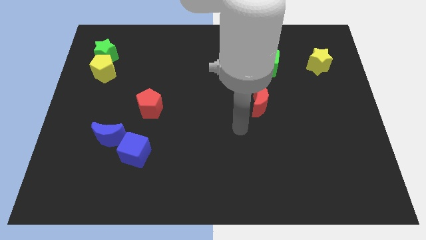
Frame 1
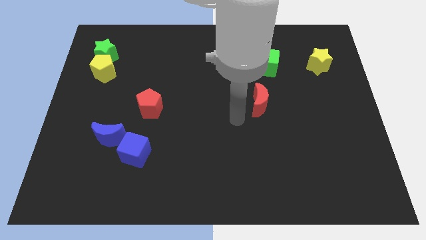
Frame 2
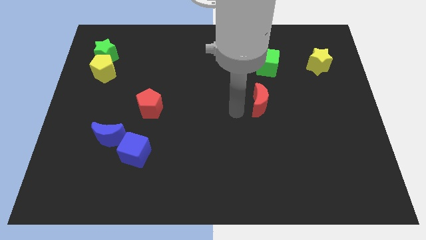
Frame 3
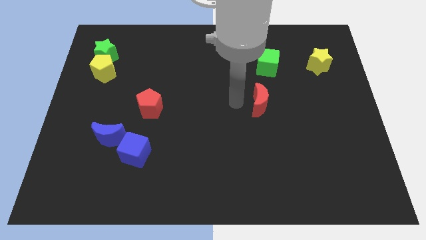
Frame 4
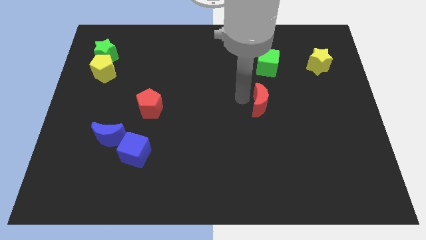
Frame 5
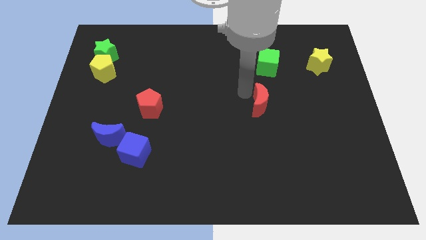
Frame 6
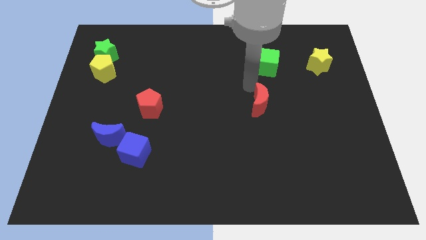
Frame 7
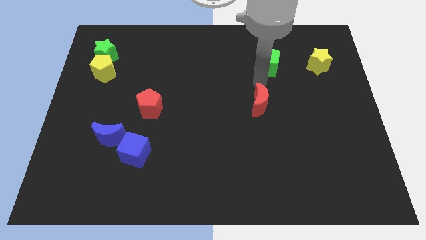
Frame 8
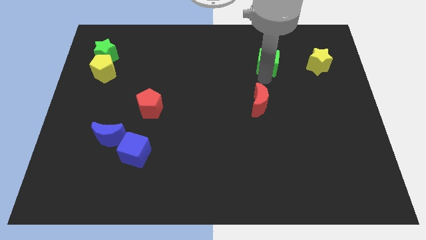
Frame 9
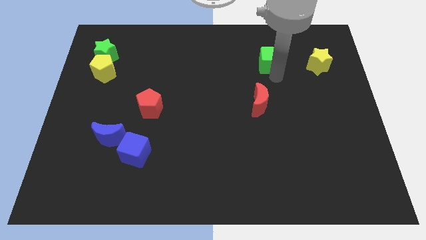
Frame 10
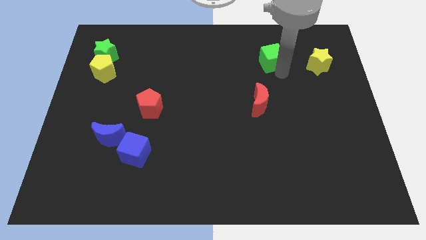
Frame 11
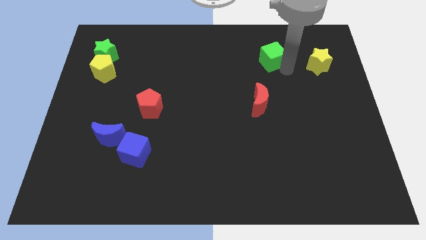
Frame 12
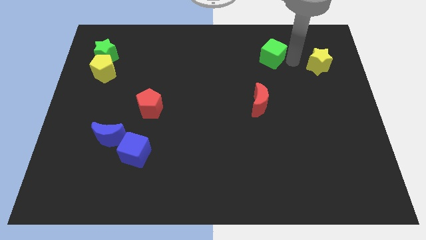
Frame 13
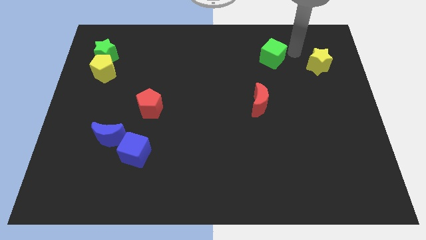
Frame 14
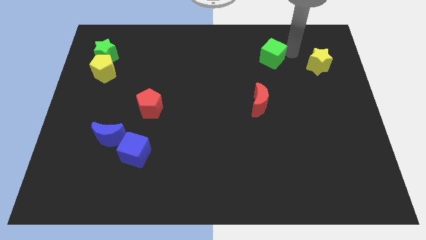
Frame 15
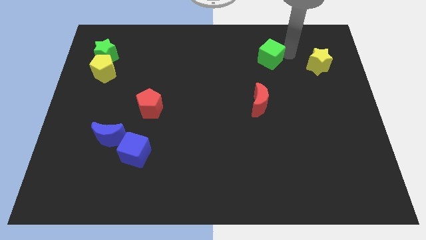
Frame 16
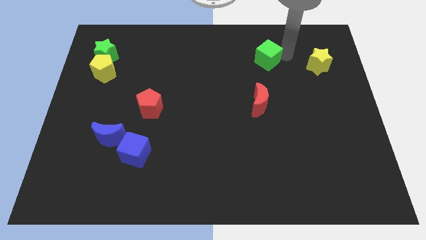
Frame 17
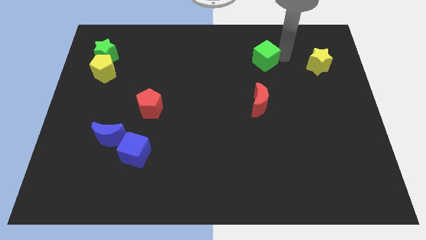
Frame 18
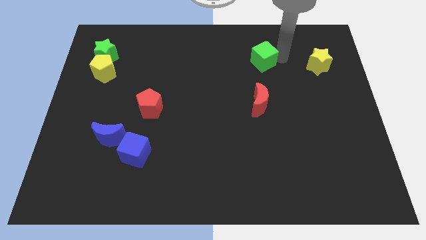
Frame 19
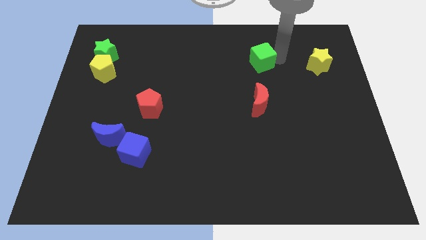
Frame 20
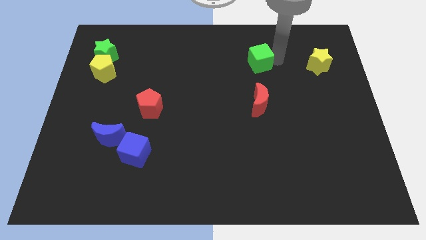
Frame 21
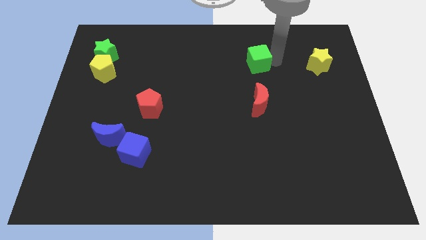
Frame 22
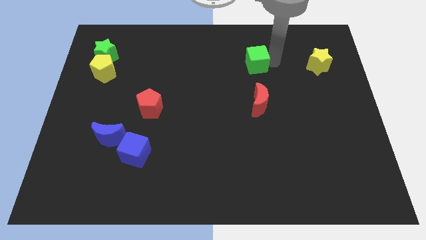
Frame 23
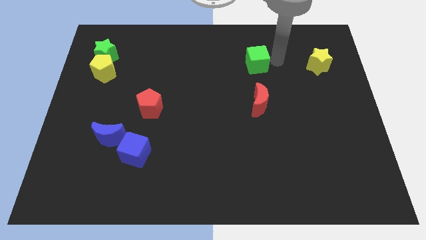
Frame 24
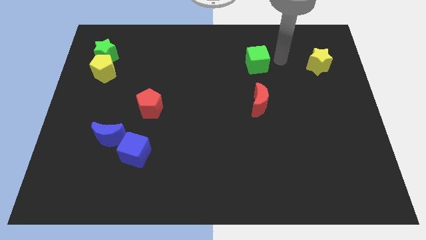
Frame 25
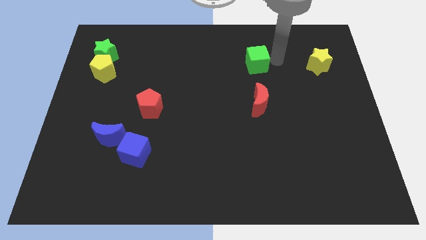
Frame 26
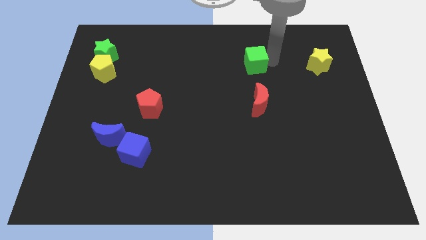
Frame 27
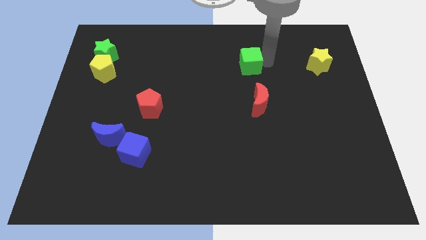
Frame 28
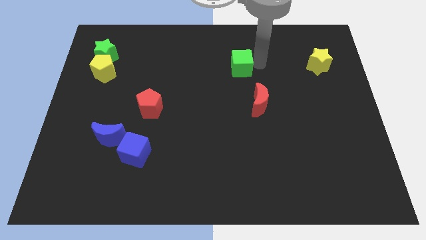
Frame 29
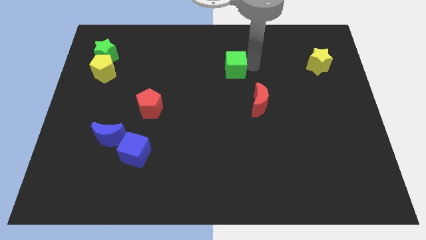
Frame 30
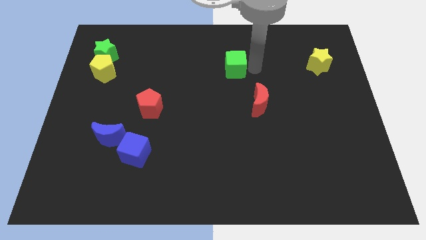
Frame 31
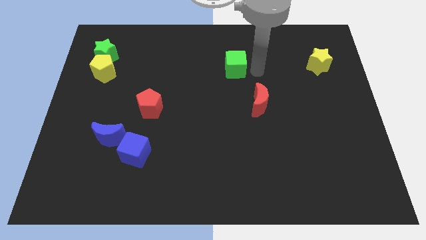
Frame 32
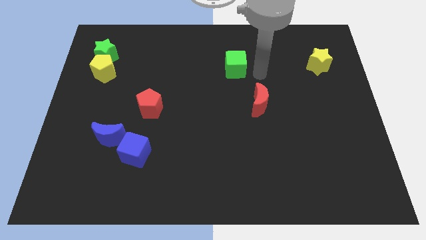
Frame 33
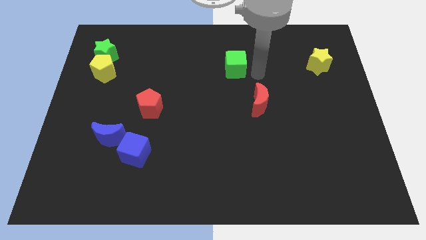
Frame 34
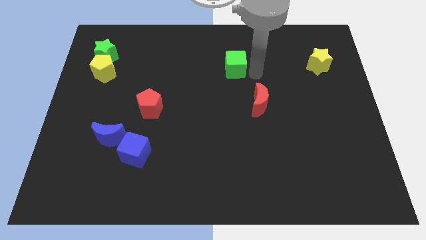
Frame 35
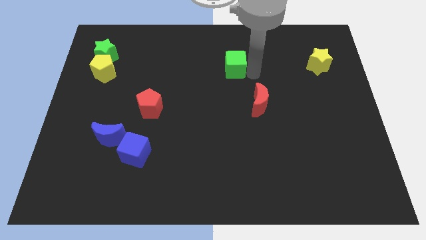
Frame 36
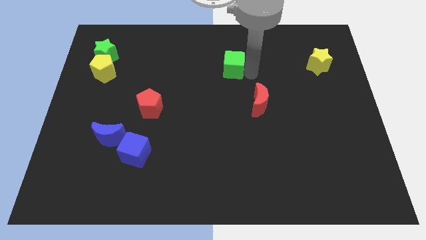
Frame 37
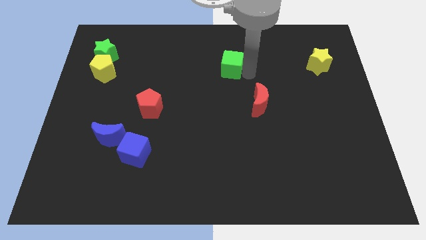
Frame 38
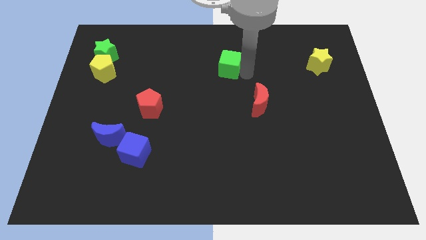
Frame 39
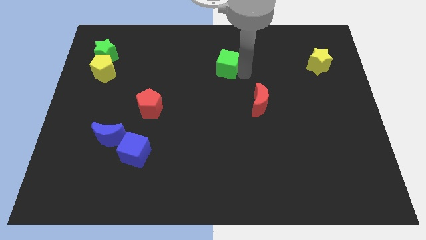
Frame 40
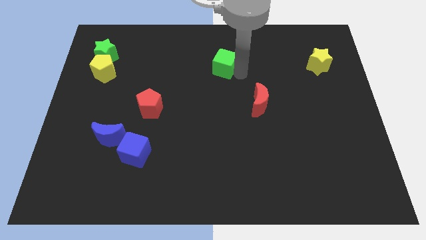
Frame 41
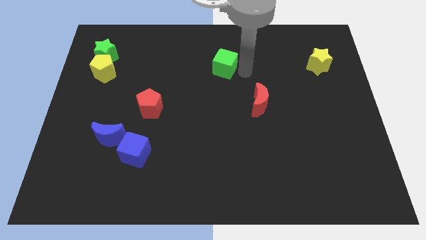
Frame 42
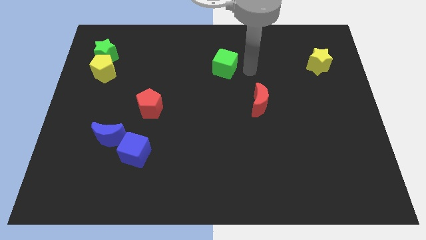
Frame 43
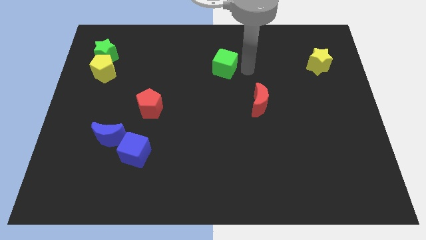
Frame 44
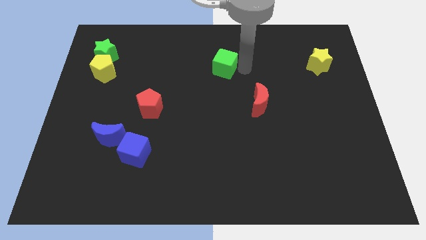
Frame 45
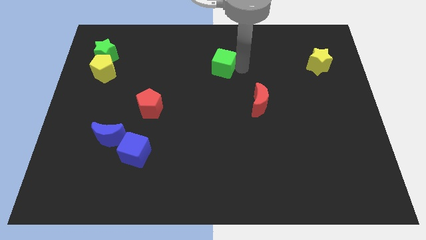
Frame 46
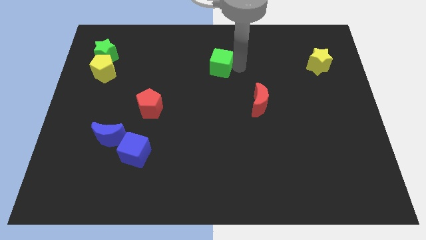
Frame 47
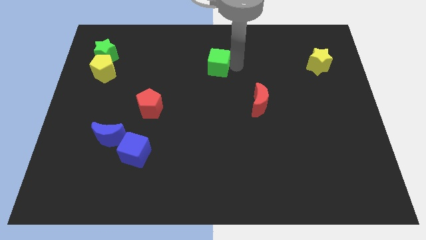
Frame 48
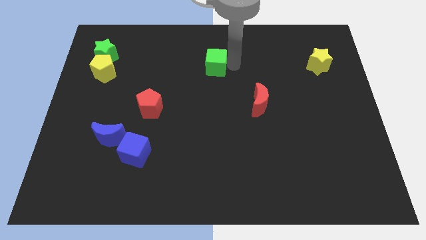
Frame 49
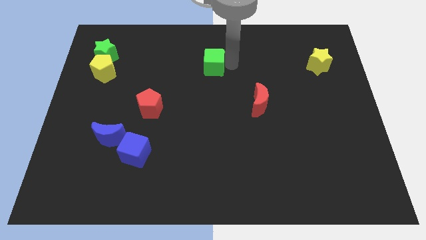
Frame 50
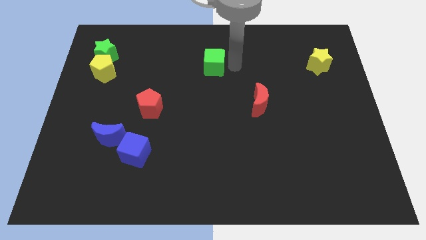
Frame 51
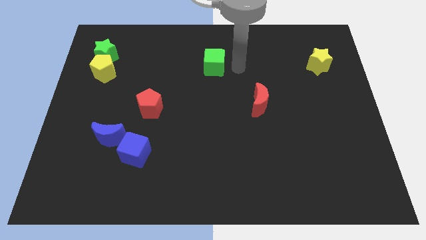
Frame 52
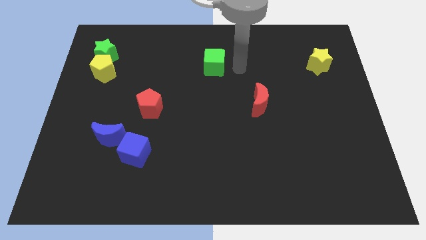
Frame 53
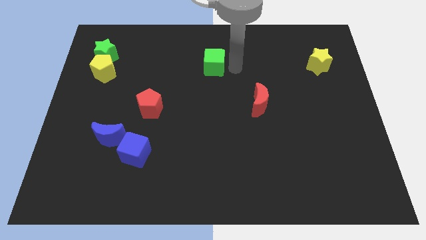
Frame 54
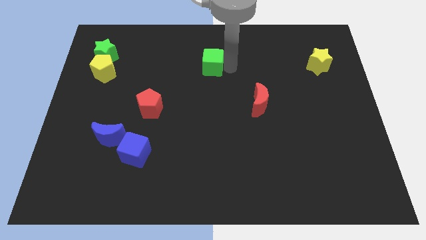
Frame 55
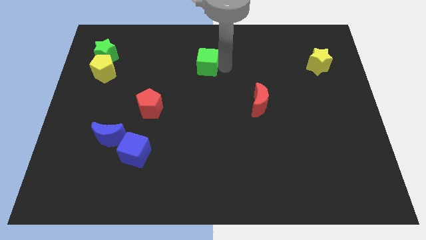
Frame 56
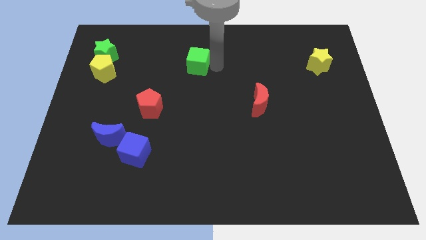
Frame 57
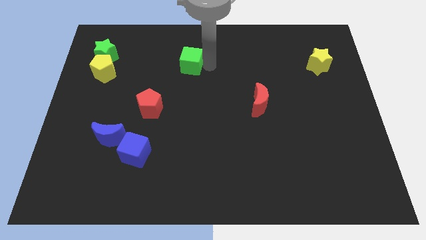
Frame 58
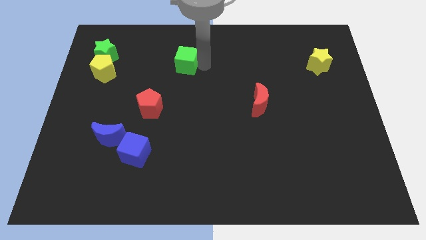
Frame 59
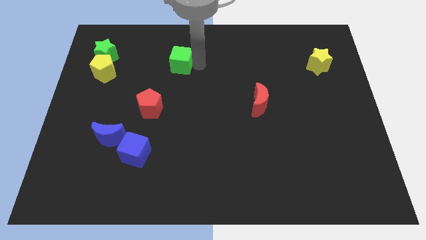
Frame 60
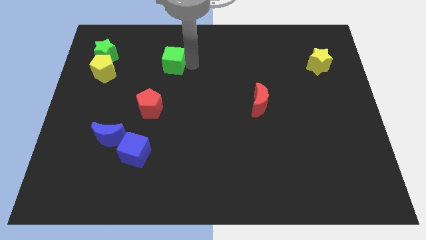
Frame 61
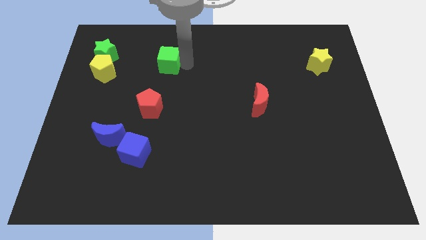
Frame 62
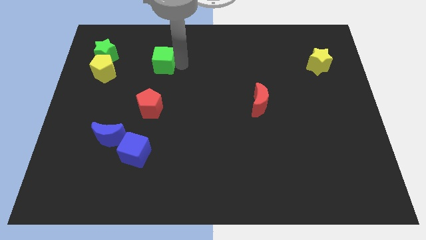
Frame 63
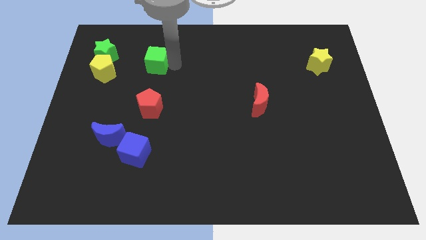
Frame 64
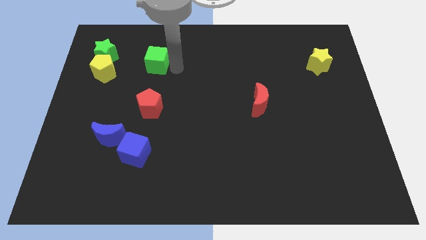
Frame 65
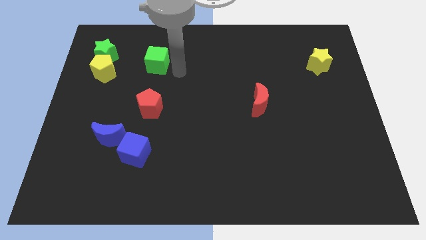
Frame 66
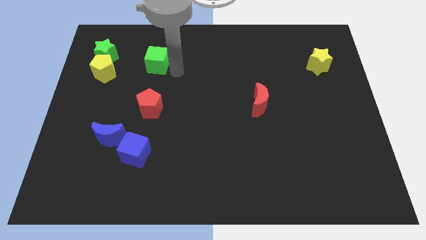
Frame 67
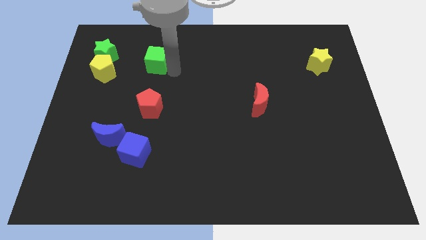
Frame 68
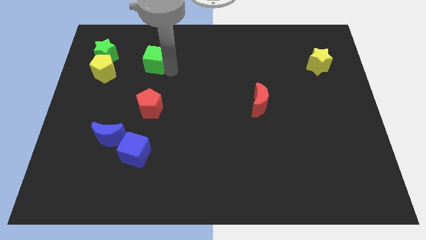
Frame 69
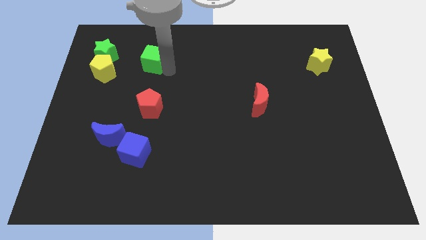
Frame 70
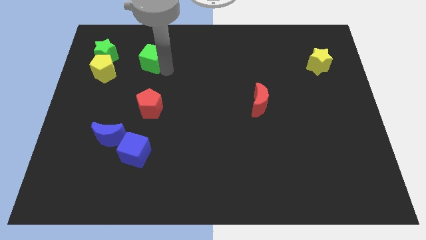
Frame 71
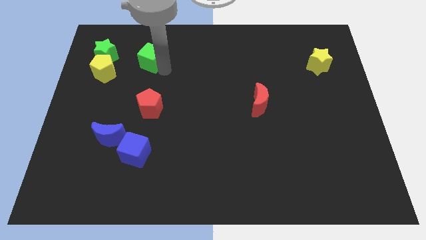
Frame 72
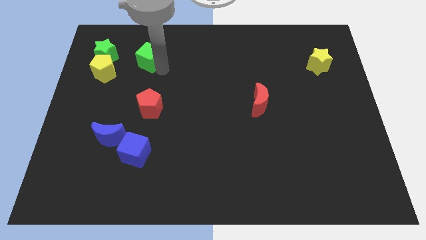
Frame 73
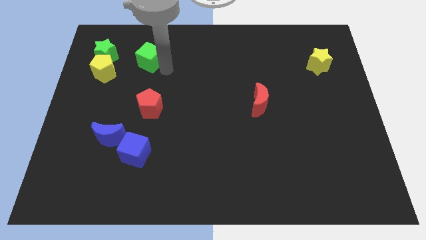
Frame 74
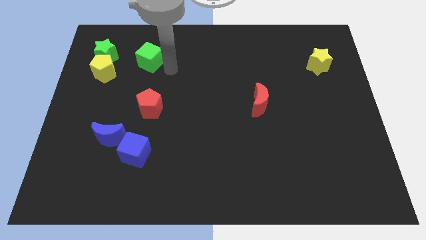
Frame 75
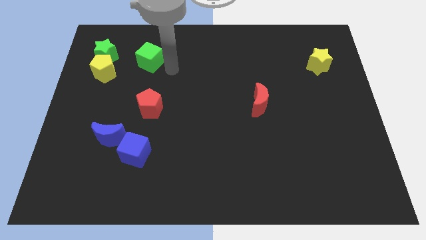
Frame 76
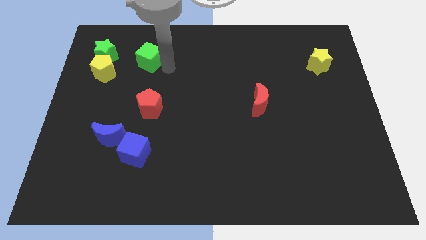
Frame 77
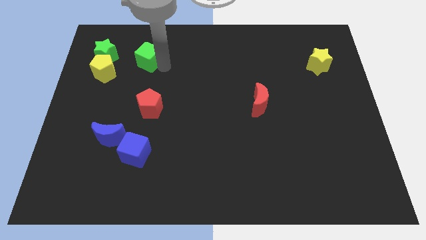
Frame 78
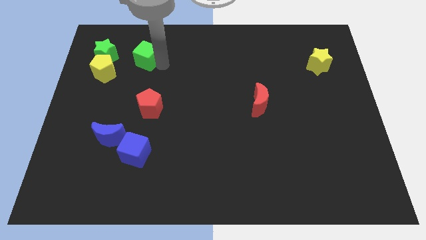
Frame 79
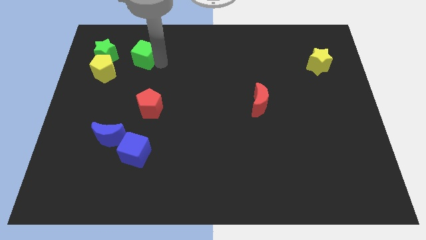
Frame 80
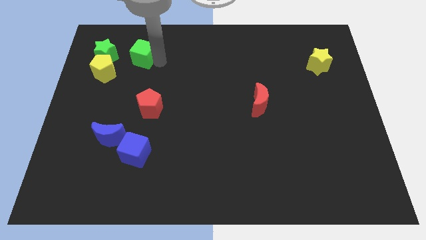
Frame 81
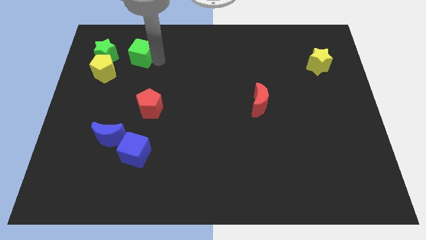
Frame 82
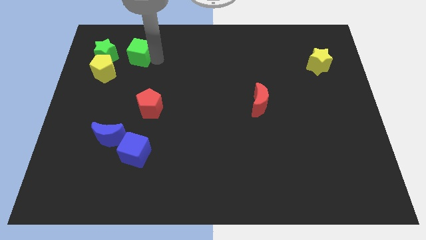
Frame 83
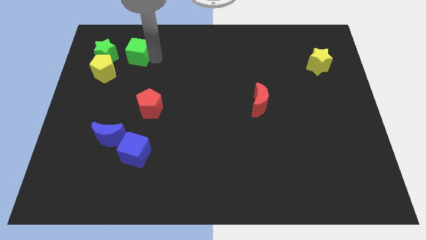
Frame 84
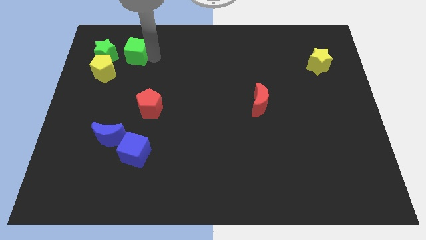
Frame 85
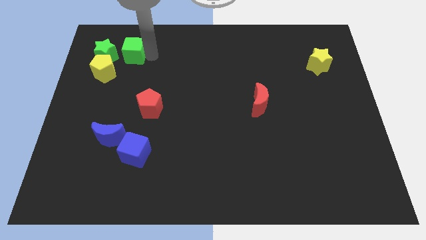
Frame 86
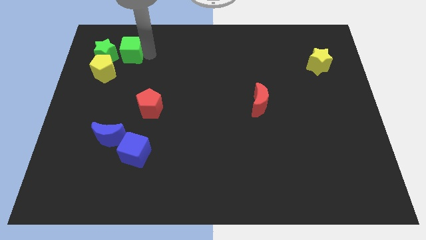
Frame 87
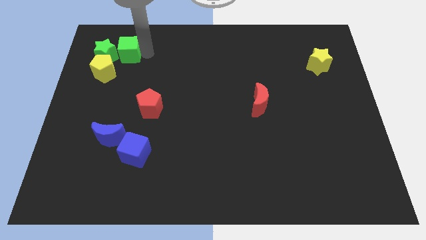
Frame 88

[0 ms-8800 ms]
push the green cube close to the green star
